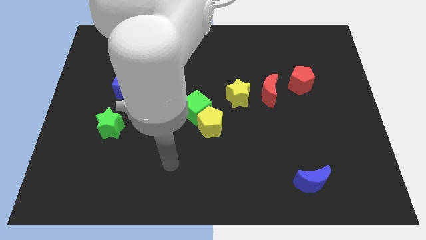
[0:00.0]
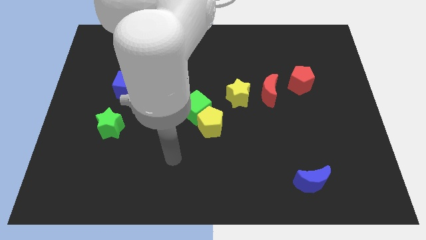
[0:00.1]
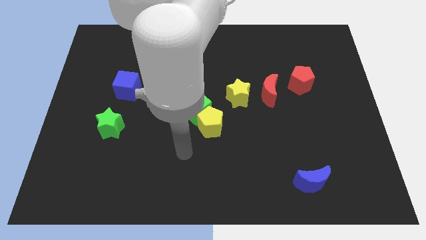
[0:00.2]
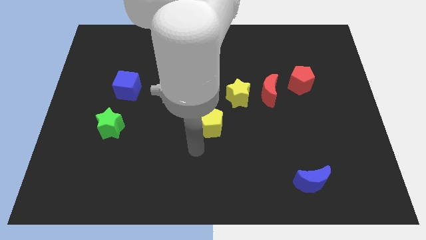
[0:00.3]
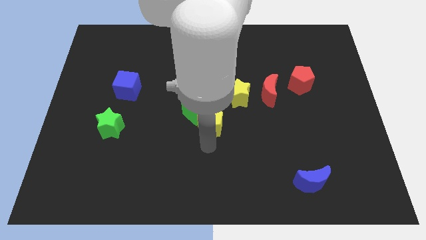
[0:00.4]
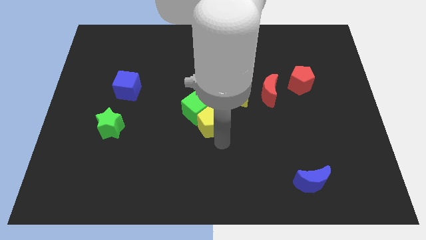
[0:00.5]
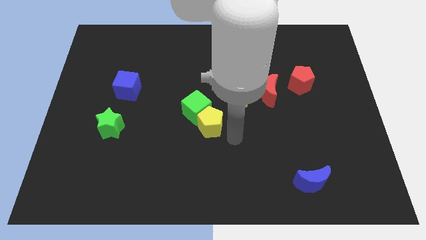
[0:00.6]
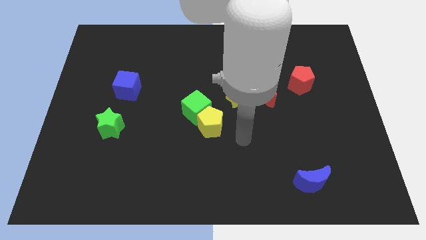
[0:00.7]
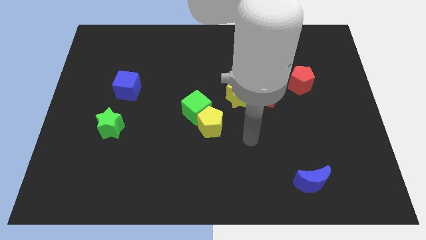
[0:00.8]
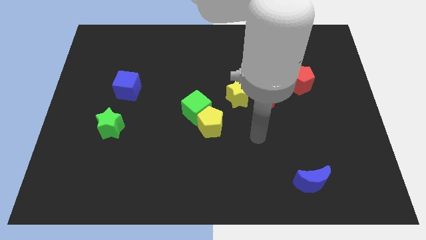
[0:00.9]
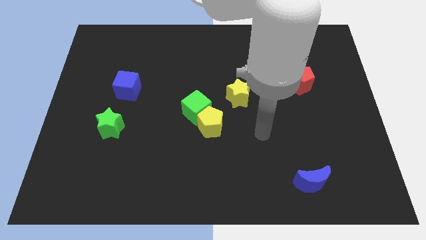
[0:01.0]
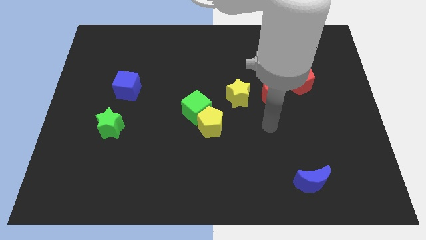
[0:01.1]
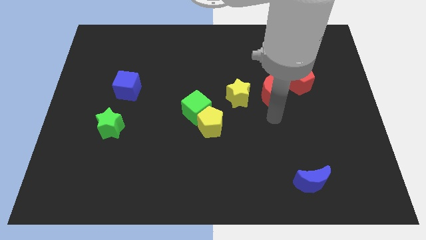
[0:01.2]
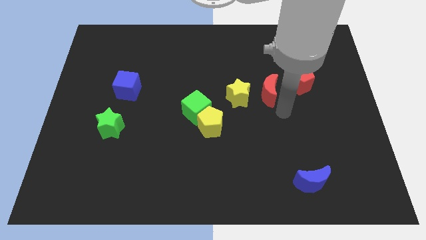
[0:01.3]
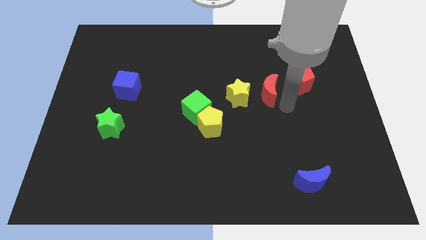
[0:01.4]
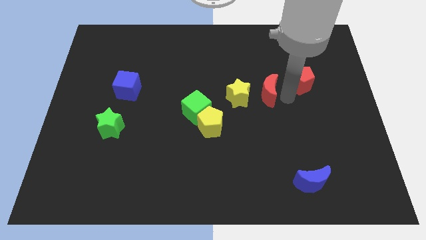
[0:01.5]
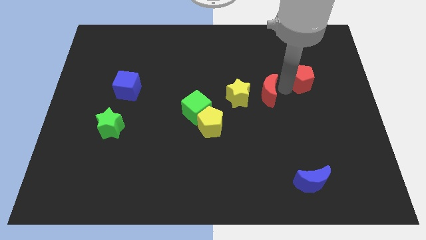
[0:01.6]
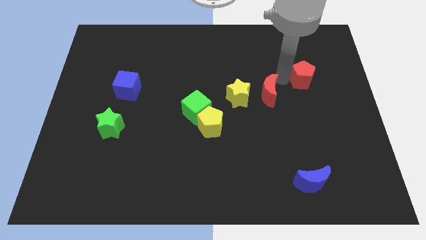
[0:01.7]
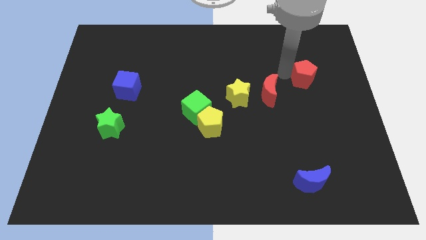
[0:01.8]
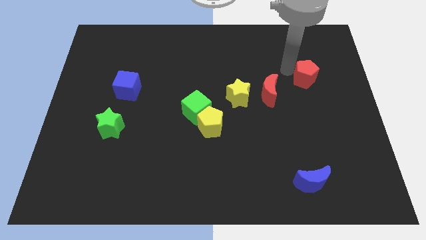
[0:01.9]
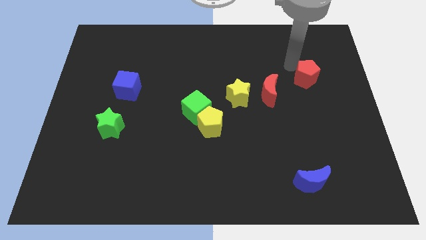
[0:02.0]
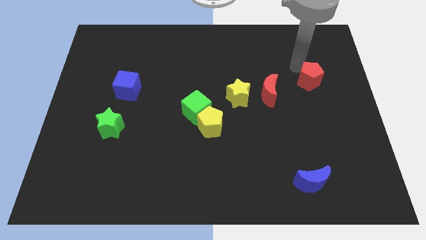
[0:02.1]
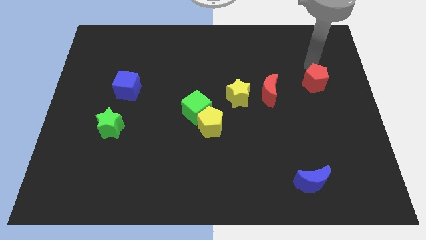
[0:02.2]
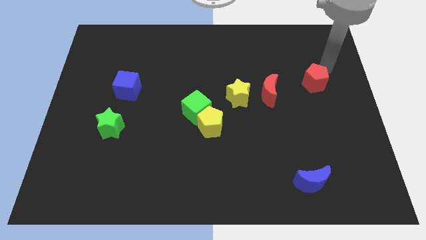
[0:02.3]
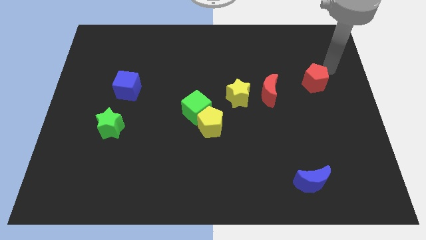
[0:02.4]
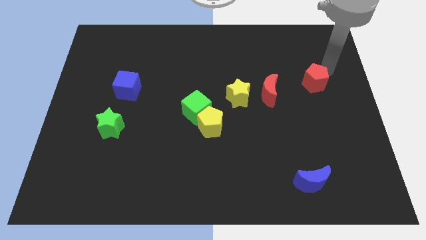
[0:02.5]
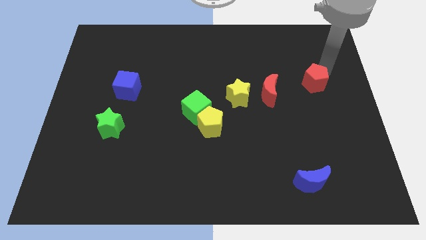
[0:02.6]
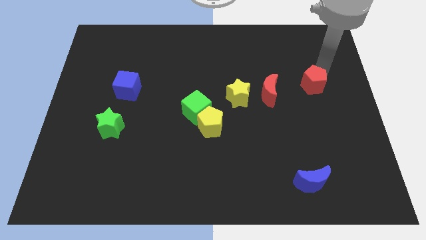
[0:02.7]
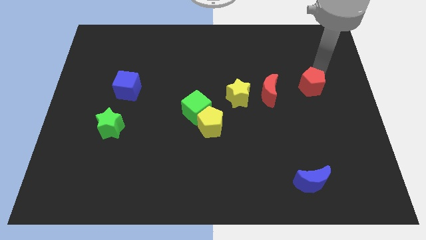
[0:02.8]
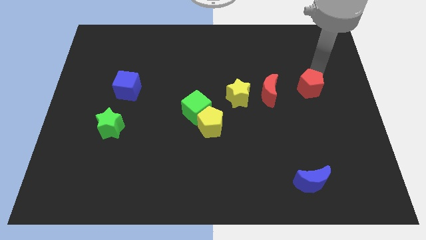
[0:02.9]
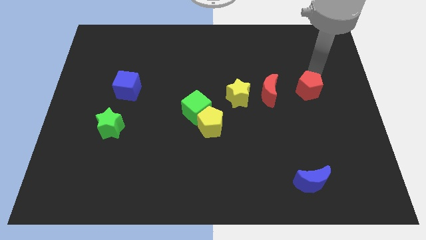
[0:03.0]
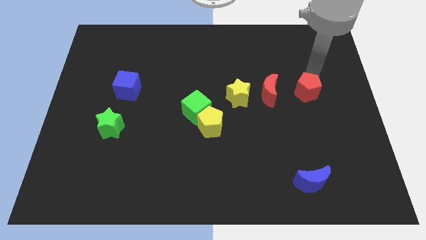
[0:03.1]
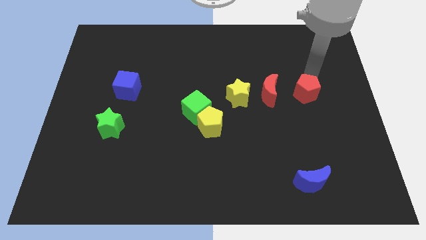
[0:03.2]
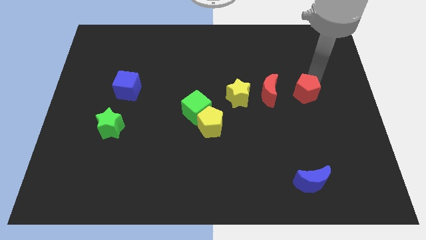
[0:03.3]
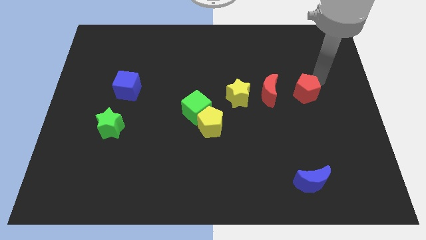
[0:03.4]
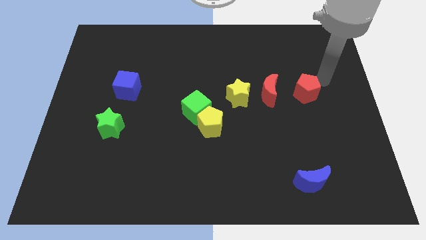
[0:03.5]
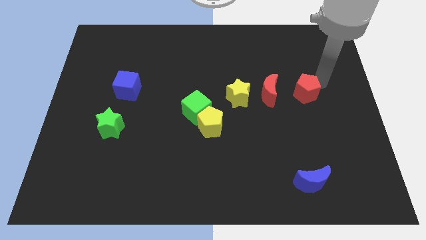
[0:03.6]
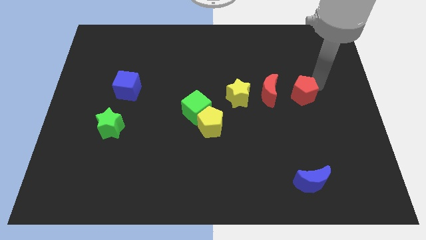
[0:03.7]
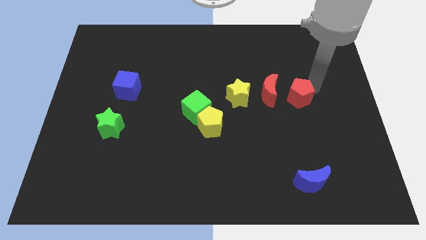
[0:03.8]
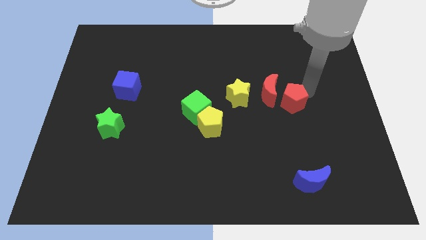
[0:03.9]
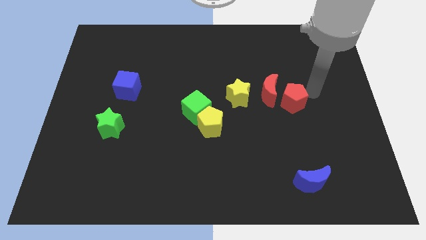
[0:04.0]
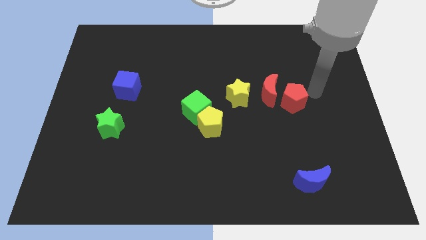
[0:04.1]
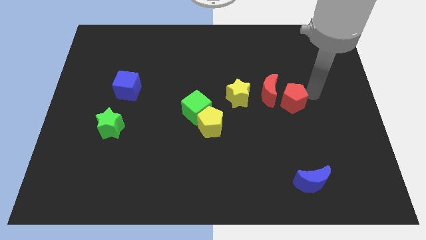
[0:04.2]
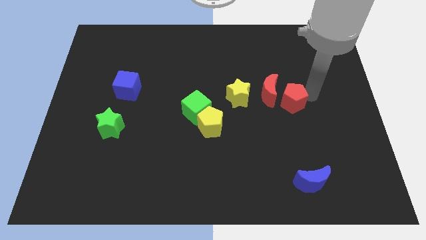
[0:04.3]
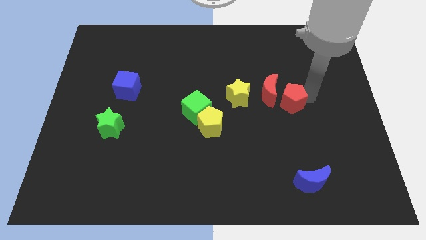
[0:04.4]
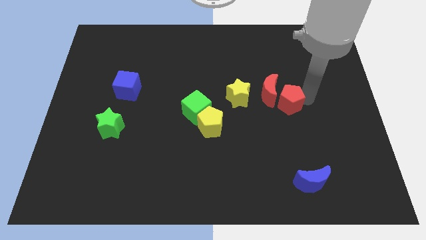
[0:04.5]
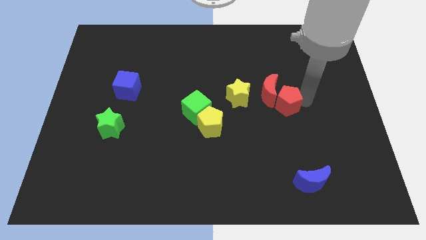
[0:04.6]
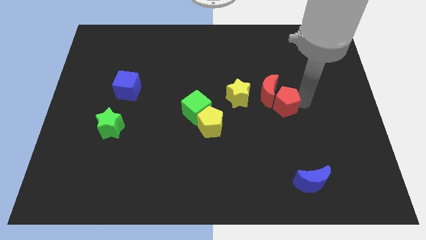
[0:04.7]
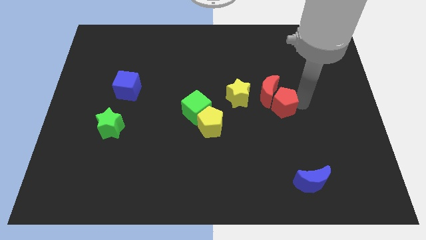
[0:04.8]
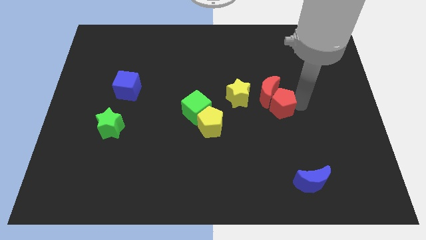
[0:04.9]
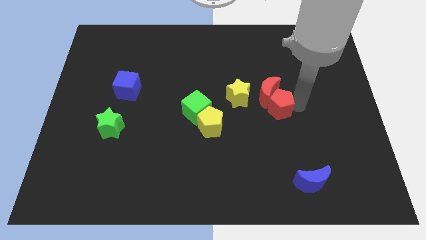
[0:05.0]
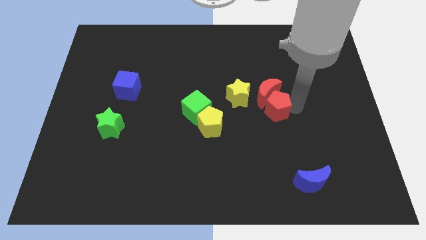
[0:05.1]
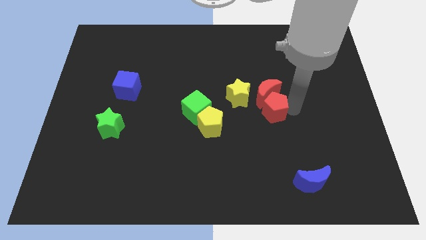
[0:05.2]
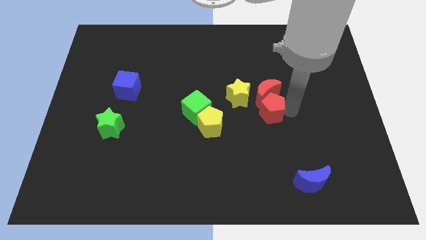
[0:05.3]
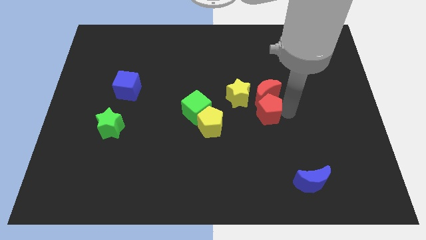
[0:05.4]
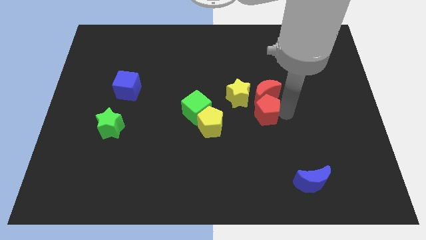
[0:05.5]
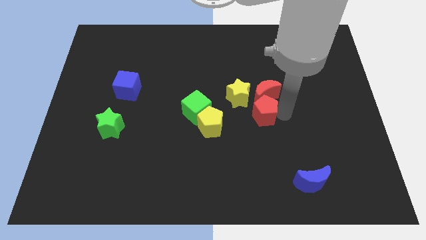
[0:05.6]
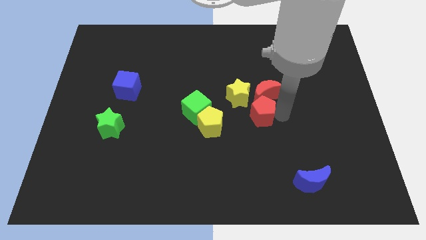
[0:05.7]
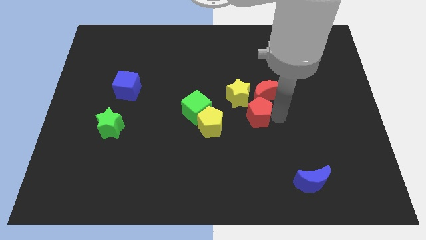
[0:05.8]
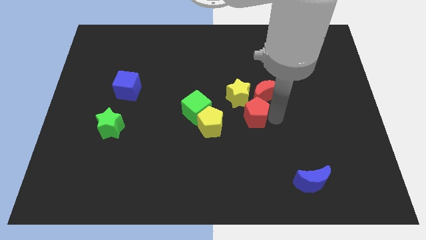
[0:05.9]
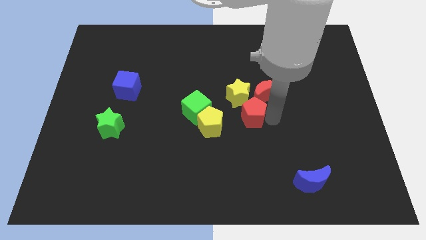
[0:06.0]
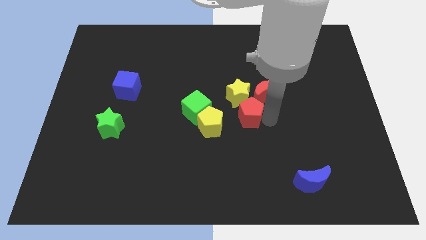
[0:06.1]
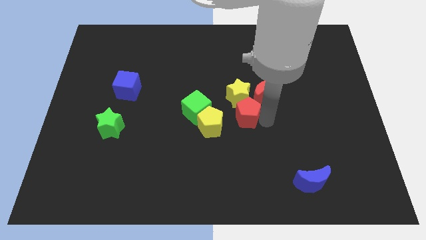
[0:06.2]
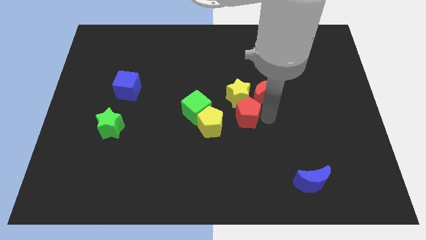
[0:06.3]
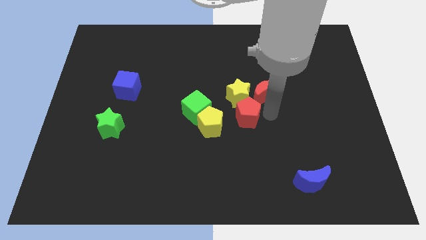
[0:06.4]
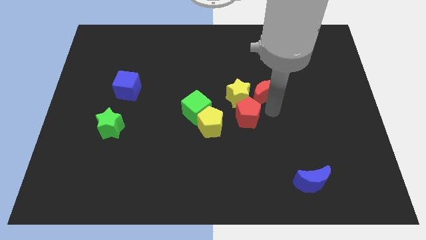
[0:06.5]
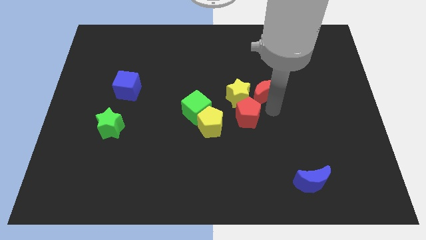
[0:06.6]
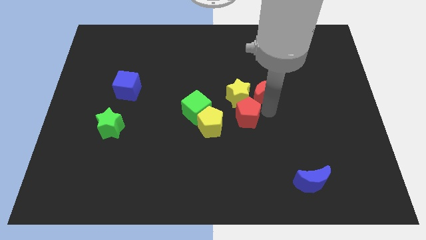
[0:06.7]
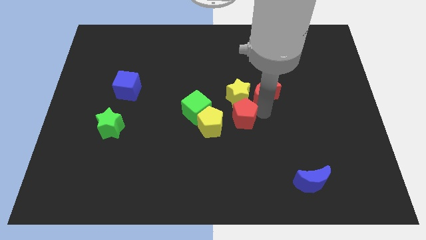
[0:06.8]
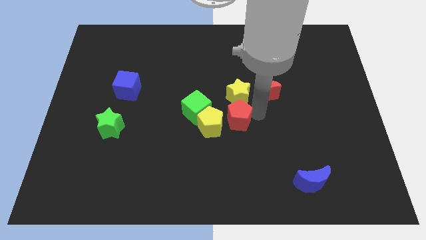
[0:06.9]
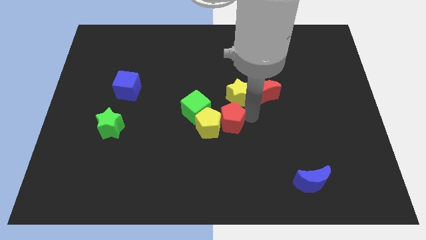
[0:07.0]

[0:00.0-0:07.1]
push the red pentagon to the yellow pentagon

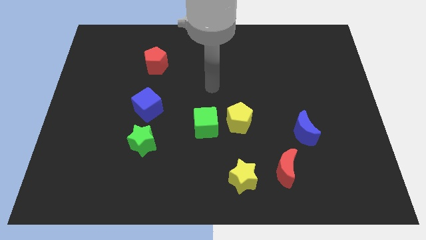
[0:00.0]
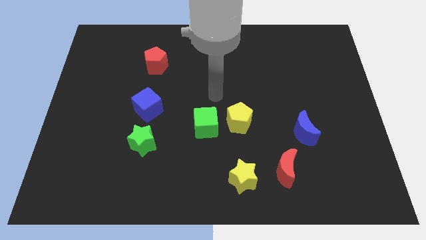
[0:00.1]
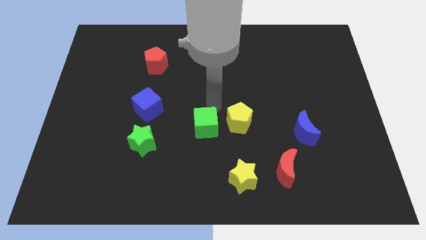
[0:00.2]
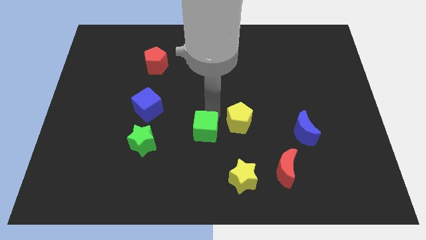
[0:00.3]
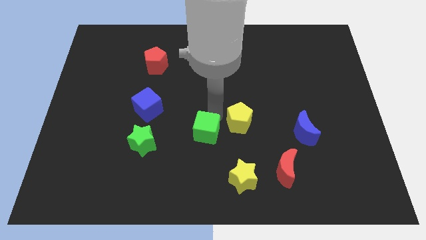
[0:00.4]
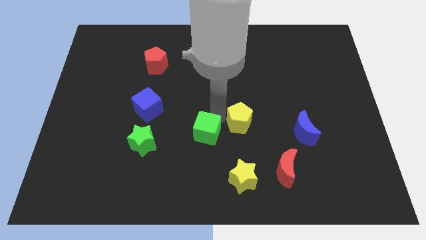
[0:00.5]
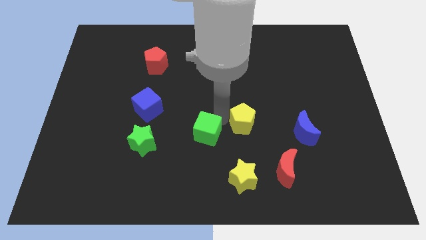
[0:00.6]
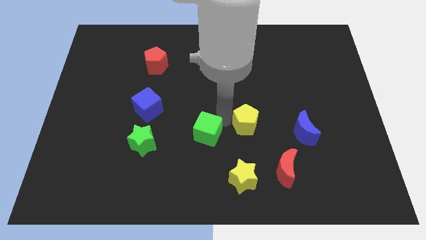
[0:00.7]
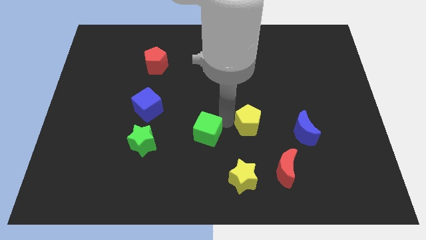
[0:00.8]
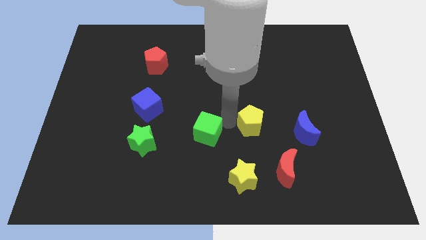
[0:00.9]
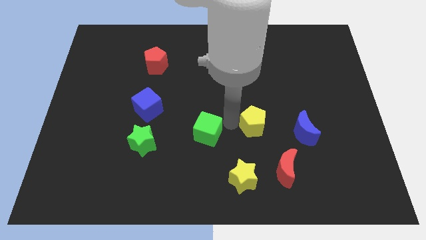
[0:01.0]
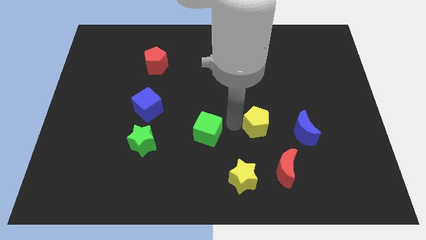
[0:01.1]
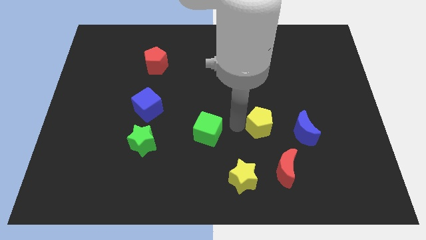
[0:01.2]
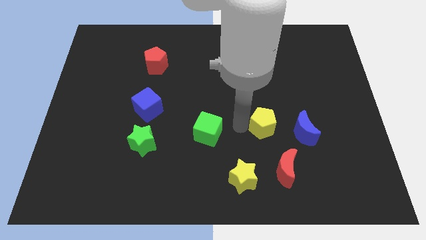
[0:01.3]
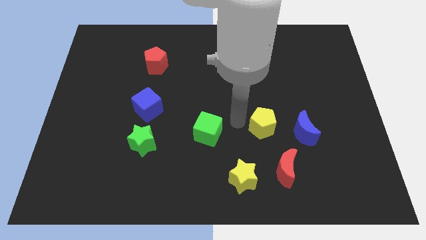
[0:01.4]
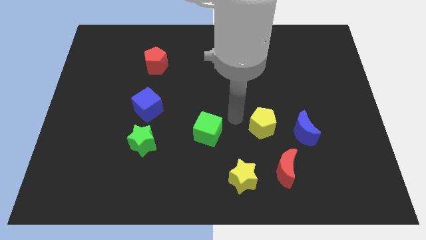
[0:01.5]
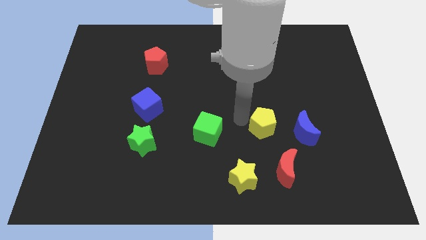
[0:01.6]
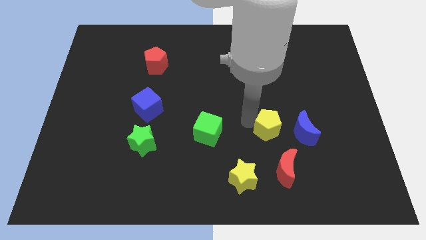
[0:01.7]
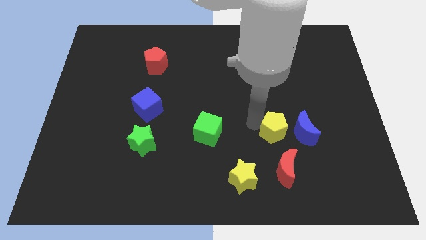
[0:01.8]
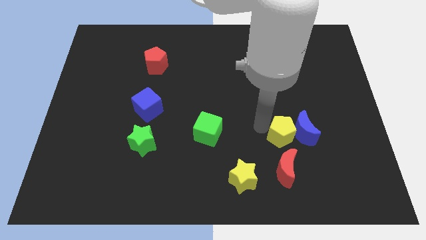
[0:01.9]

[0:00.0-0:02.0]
slide the yellow pentagon towards the blue moon
